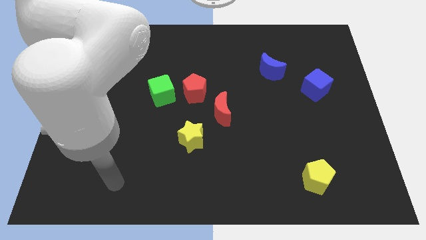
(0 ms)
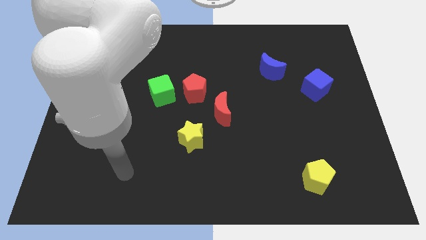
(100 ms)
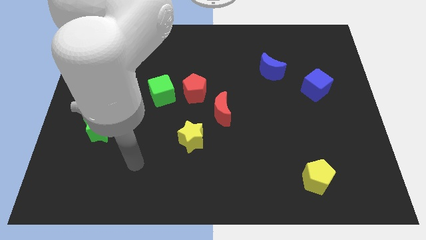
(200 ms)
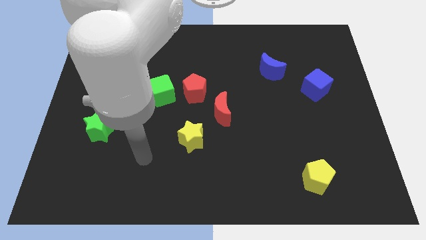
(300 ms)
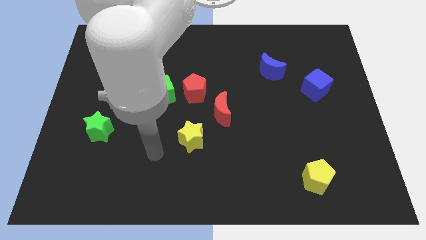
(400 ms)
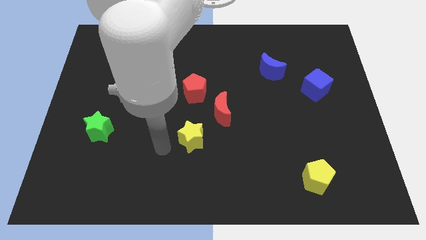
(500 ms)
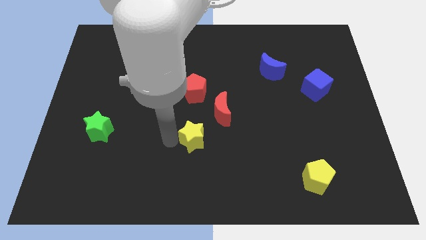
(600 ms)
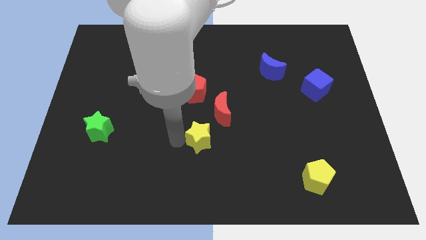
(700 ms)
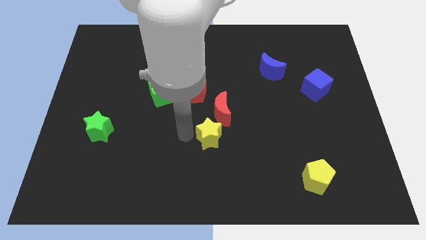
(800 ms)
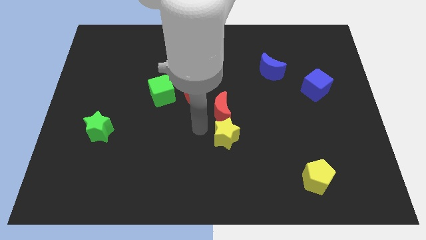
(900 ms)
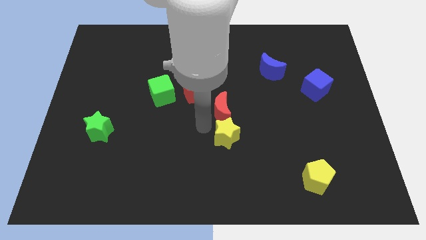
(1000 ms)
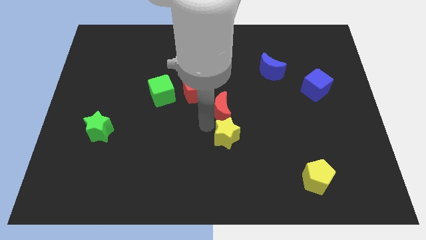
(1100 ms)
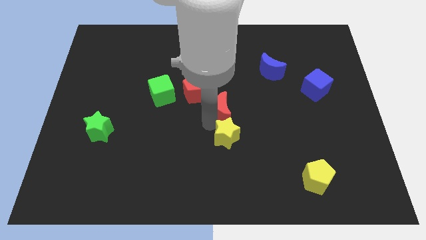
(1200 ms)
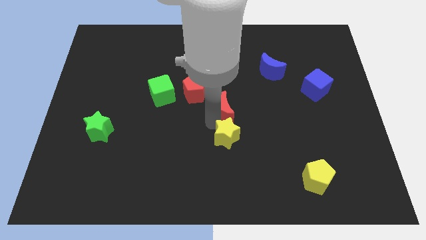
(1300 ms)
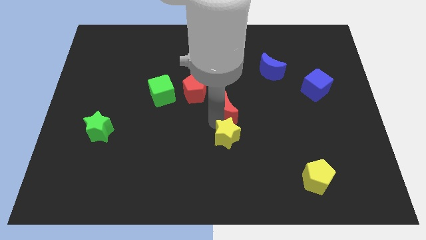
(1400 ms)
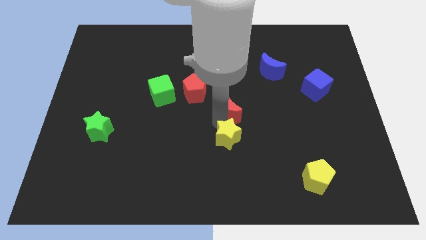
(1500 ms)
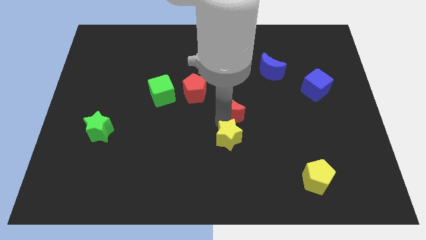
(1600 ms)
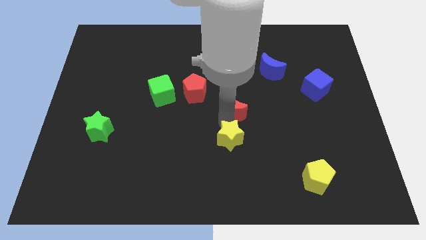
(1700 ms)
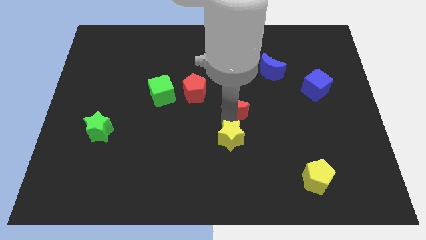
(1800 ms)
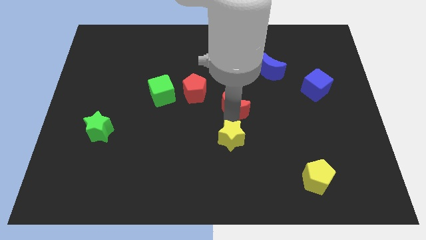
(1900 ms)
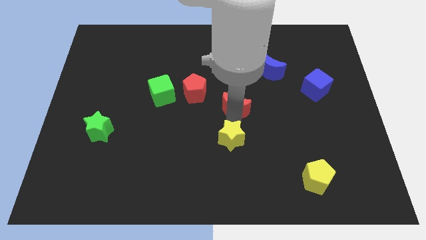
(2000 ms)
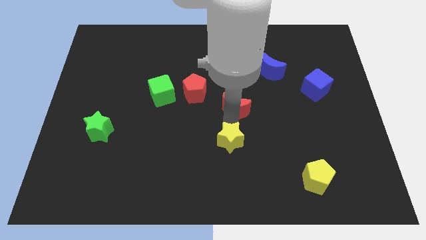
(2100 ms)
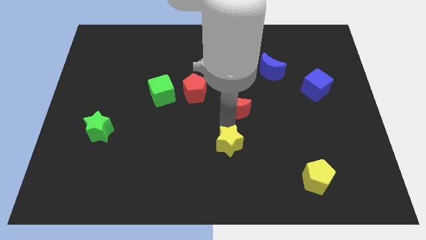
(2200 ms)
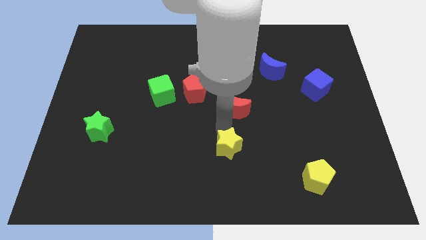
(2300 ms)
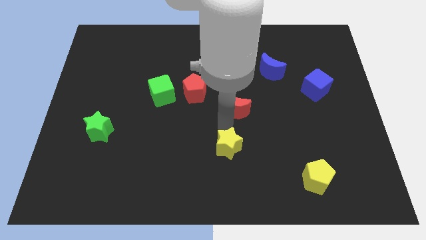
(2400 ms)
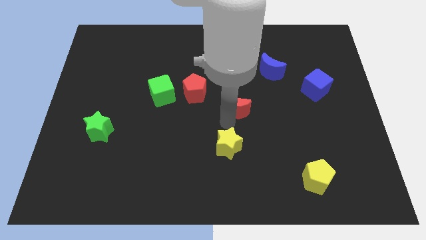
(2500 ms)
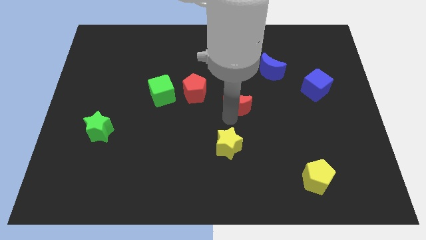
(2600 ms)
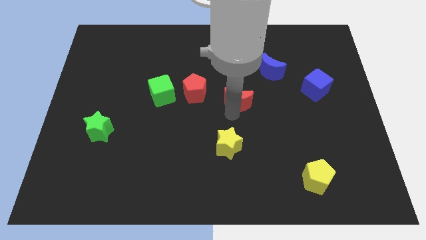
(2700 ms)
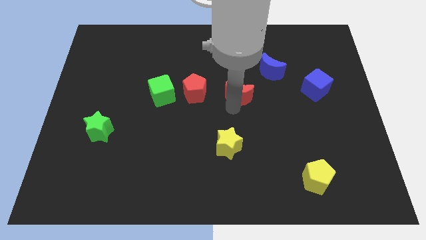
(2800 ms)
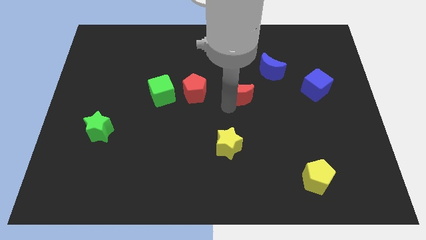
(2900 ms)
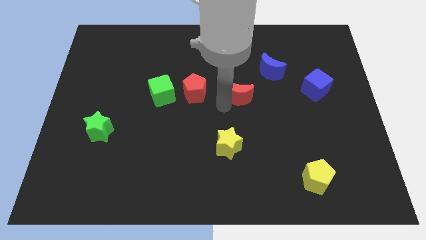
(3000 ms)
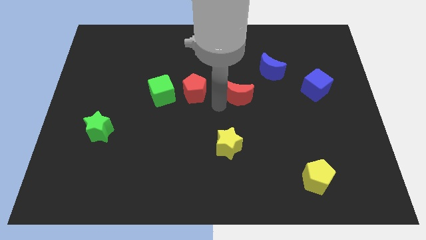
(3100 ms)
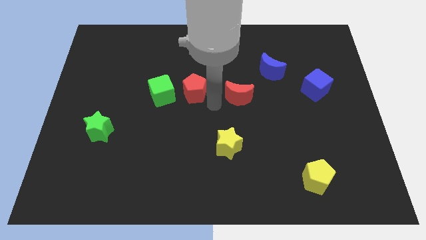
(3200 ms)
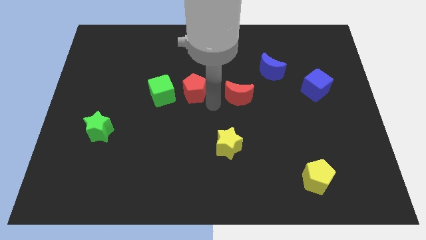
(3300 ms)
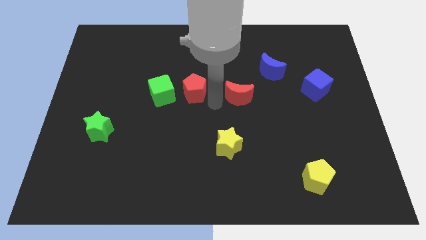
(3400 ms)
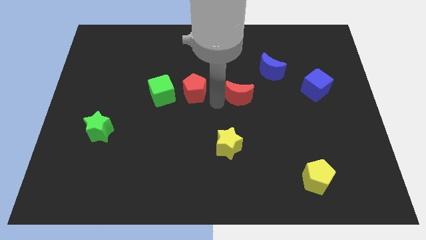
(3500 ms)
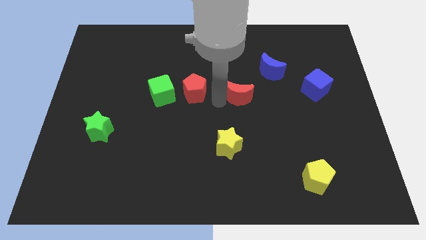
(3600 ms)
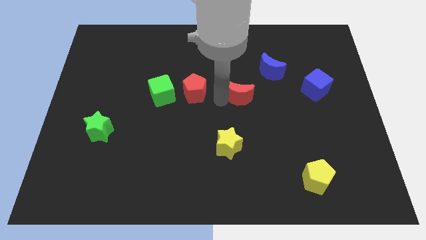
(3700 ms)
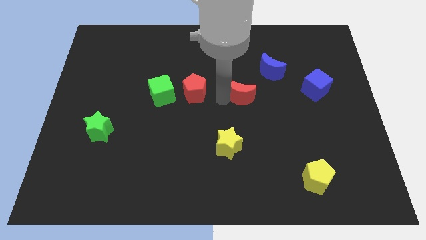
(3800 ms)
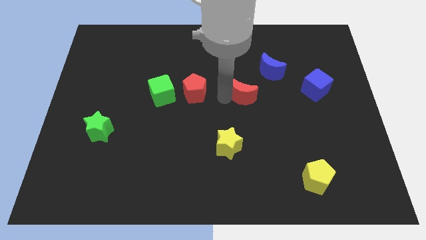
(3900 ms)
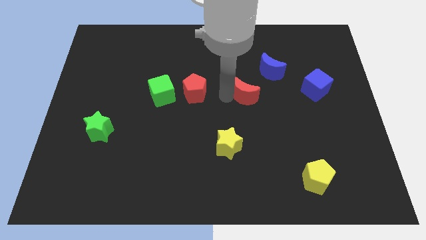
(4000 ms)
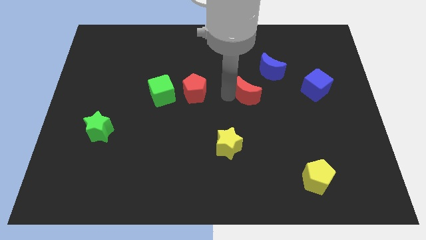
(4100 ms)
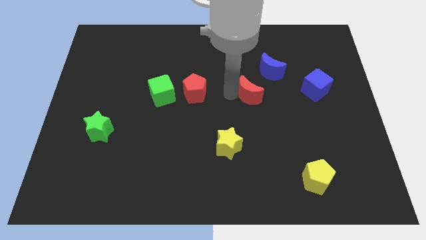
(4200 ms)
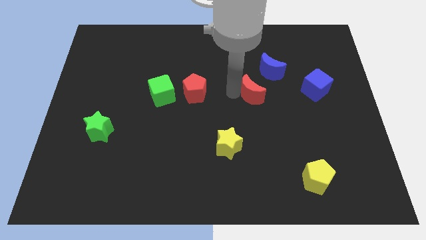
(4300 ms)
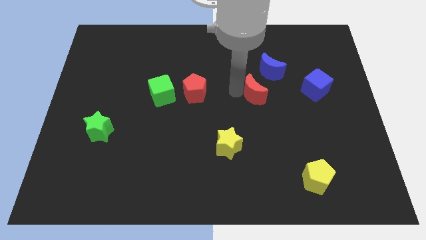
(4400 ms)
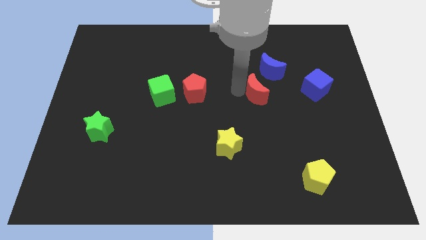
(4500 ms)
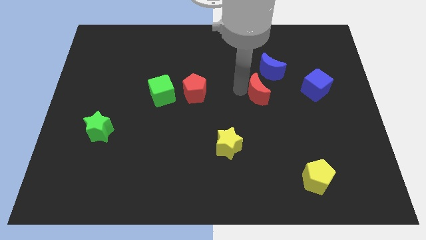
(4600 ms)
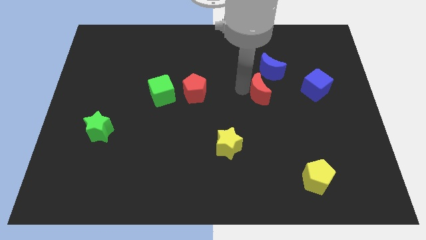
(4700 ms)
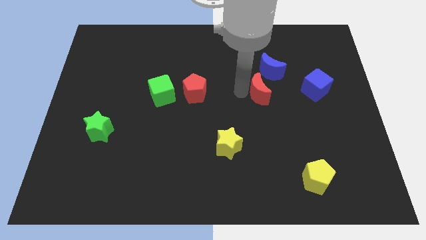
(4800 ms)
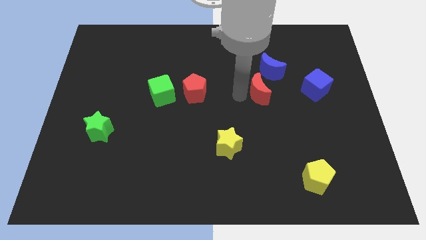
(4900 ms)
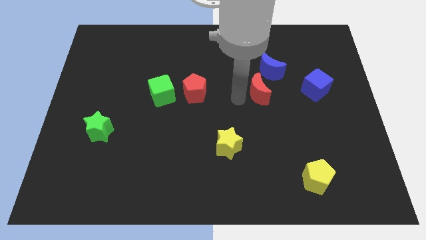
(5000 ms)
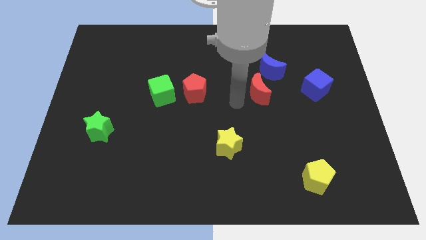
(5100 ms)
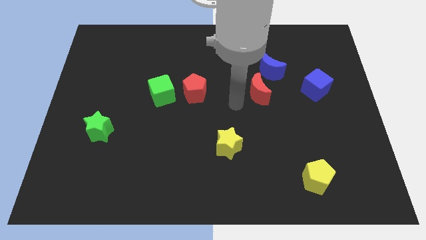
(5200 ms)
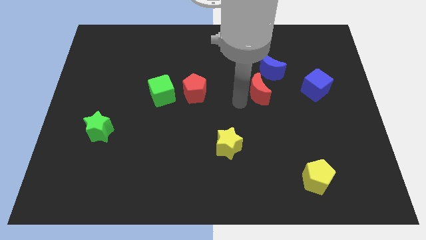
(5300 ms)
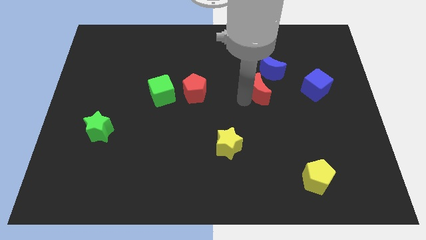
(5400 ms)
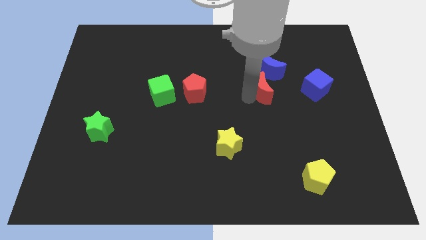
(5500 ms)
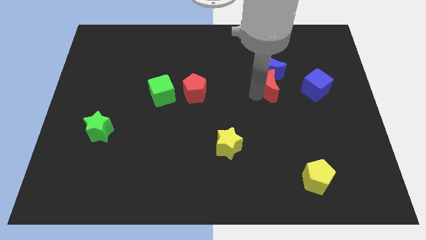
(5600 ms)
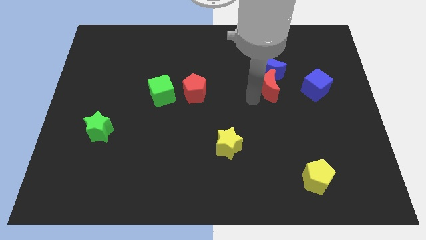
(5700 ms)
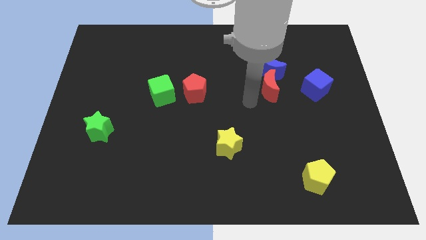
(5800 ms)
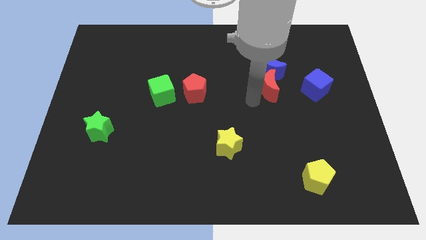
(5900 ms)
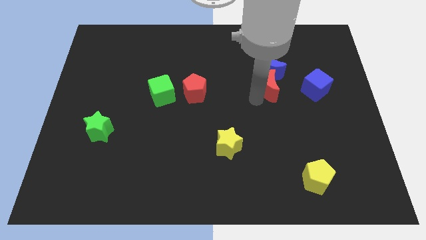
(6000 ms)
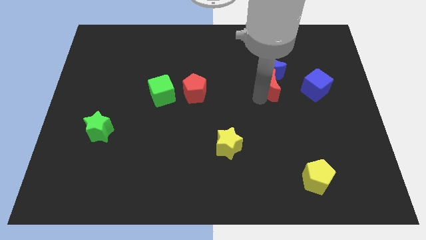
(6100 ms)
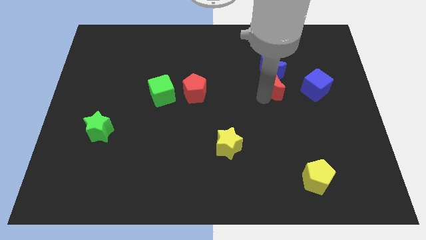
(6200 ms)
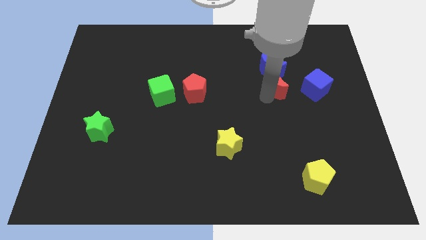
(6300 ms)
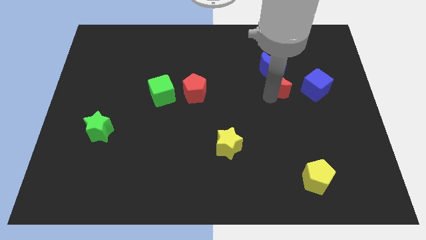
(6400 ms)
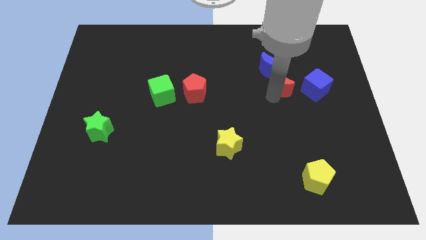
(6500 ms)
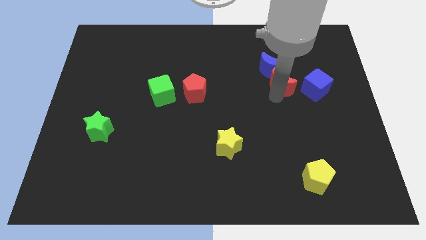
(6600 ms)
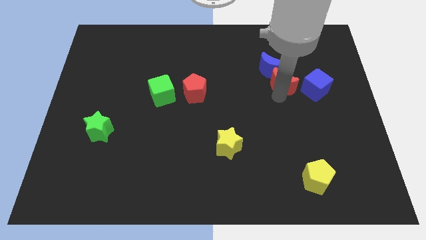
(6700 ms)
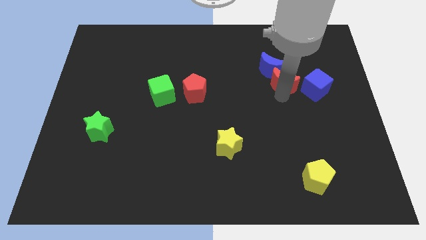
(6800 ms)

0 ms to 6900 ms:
slide the red moon to the top left side of the blue cube
